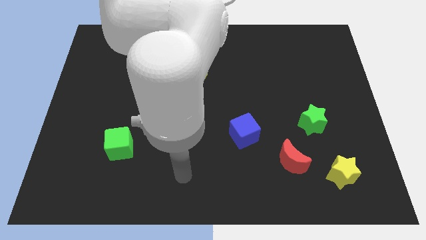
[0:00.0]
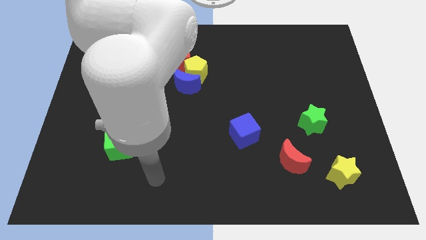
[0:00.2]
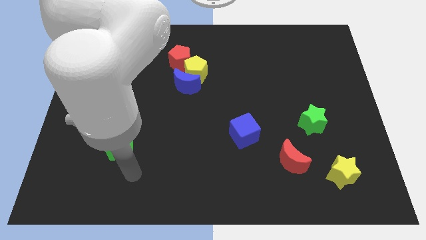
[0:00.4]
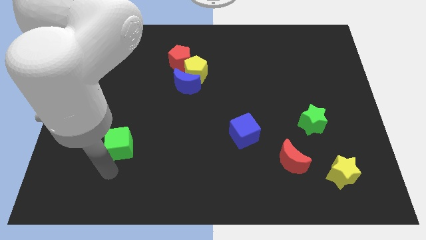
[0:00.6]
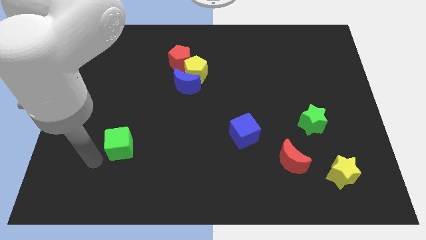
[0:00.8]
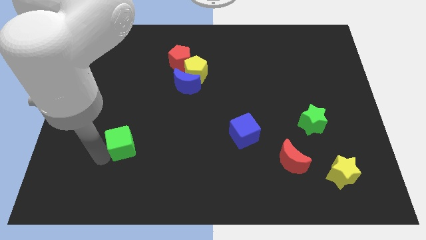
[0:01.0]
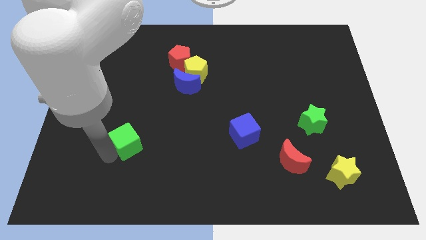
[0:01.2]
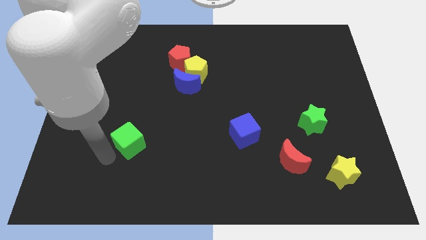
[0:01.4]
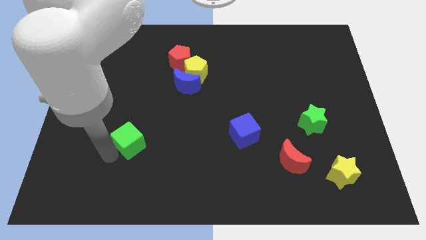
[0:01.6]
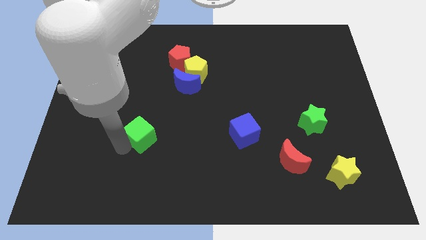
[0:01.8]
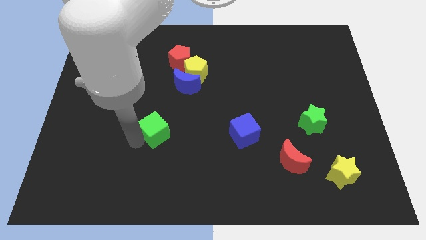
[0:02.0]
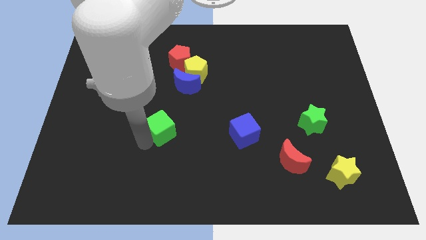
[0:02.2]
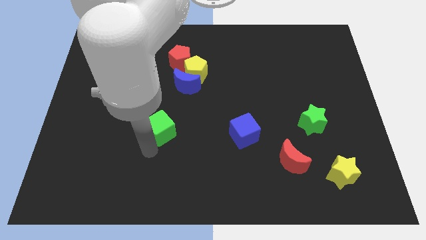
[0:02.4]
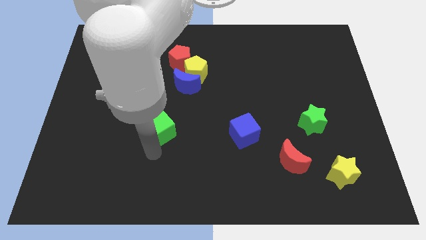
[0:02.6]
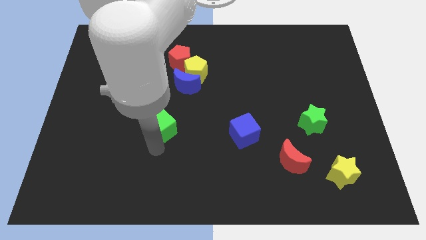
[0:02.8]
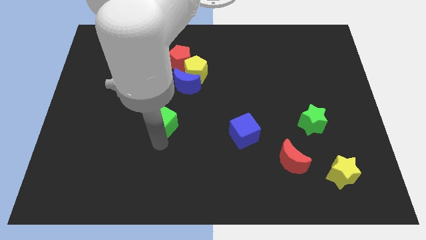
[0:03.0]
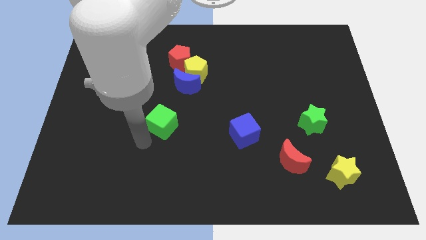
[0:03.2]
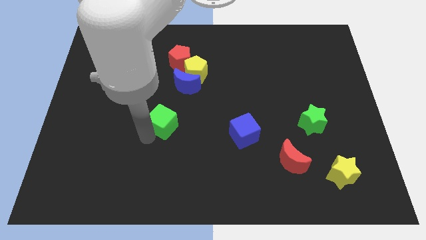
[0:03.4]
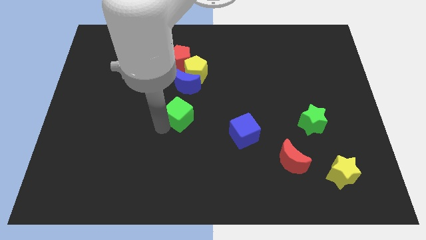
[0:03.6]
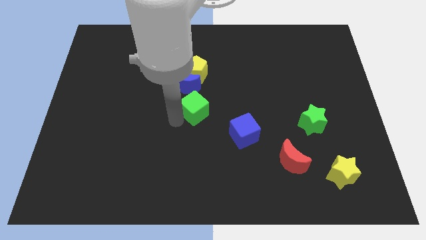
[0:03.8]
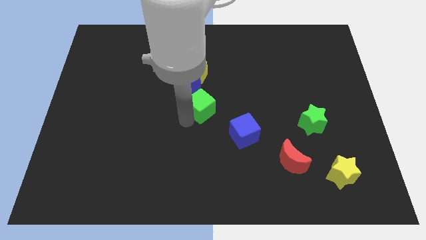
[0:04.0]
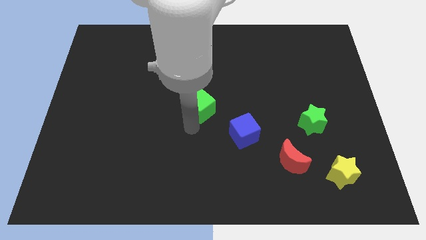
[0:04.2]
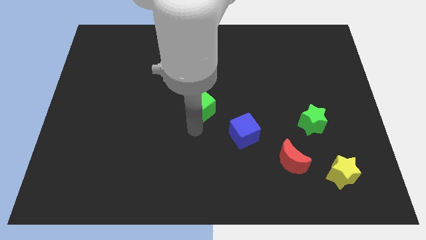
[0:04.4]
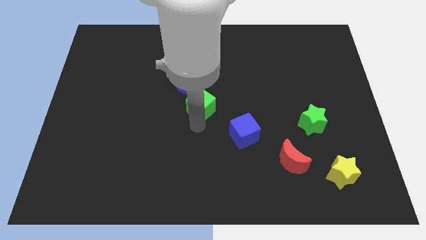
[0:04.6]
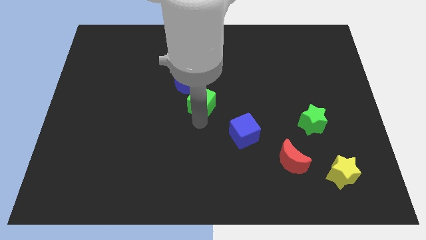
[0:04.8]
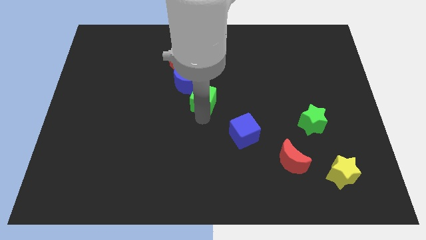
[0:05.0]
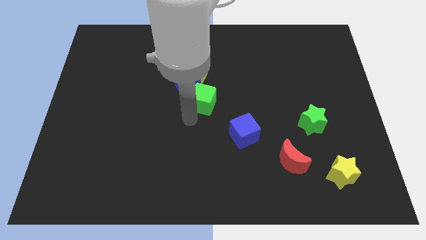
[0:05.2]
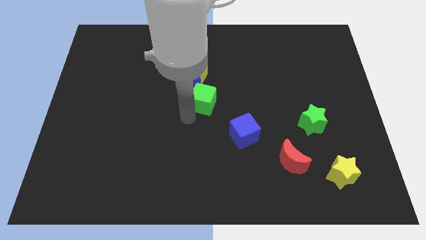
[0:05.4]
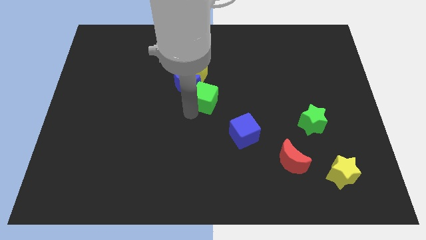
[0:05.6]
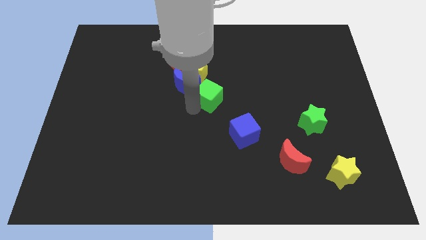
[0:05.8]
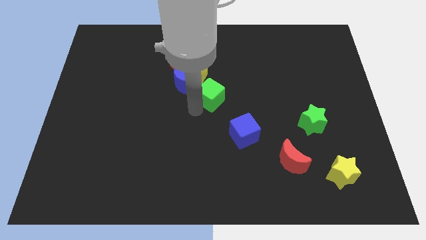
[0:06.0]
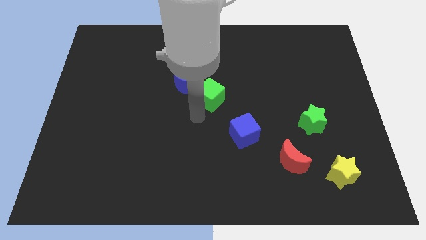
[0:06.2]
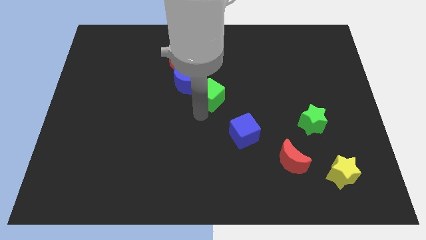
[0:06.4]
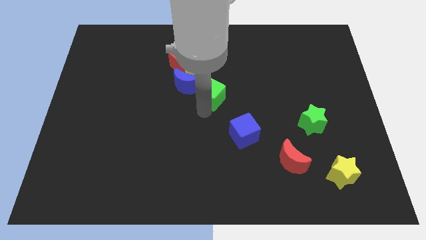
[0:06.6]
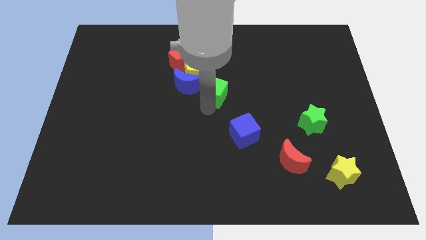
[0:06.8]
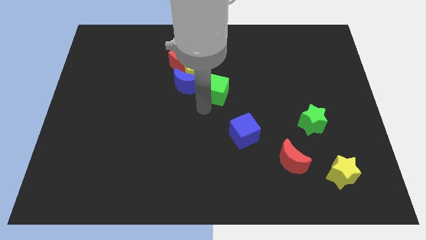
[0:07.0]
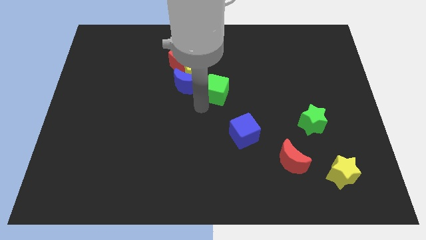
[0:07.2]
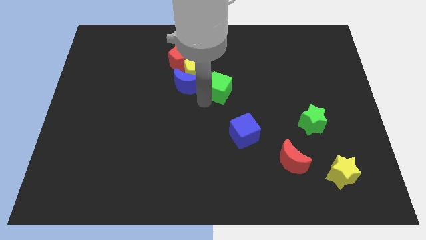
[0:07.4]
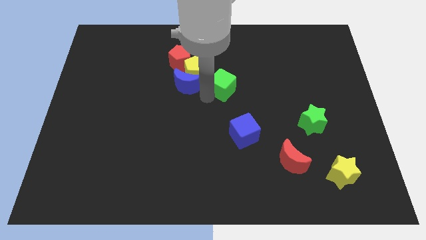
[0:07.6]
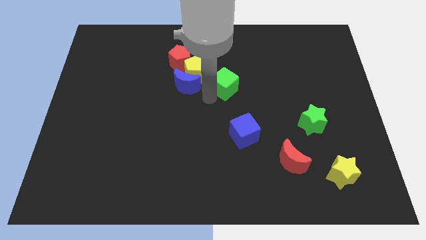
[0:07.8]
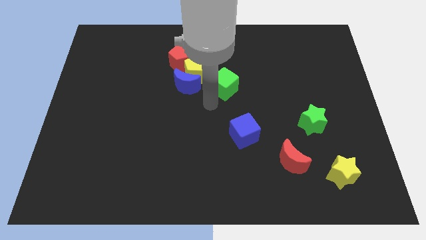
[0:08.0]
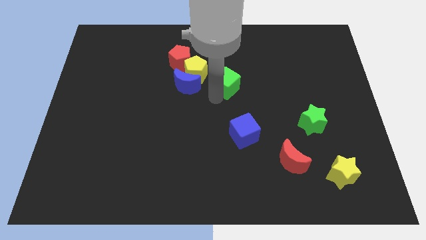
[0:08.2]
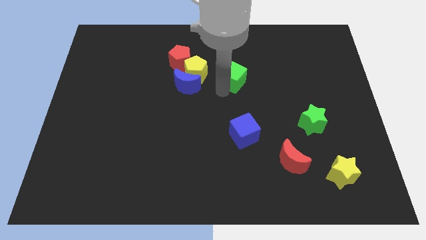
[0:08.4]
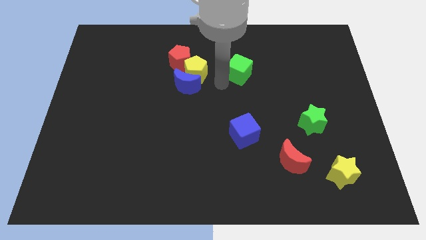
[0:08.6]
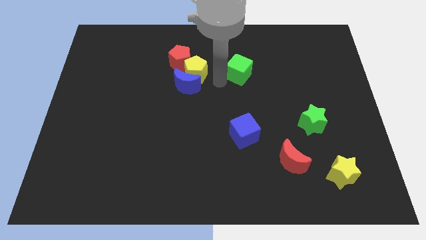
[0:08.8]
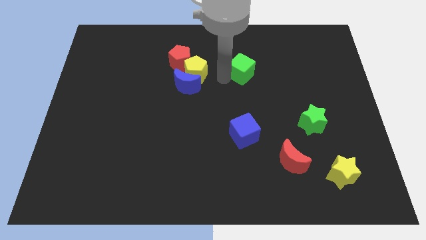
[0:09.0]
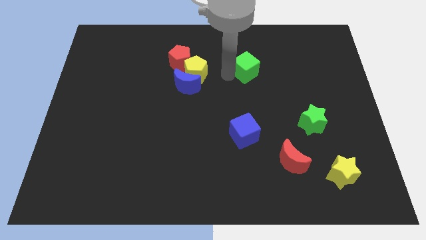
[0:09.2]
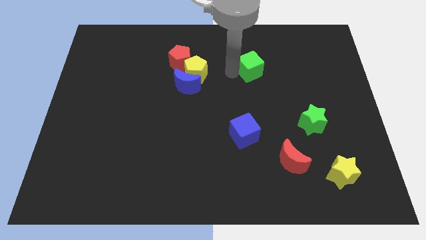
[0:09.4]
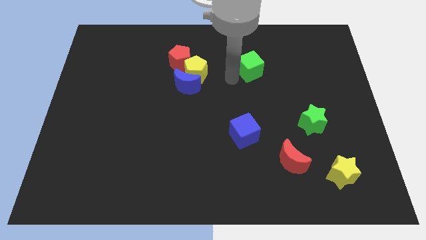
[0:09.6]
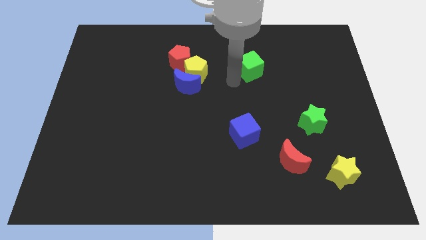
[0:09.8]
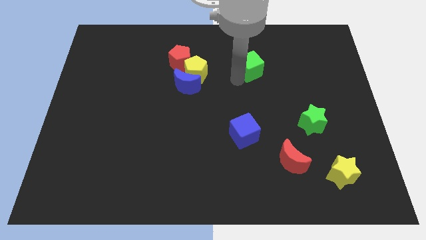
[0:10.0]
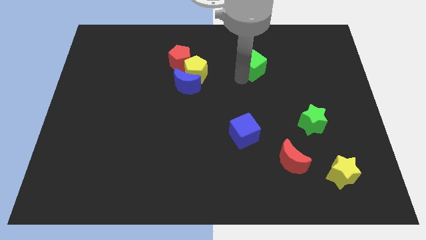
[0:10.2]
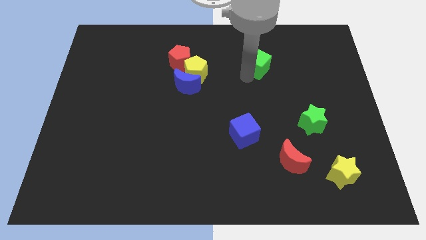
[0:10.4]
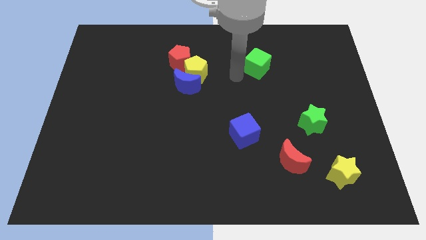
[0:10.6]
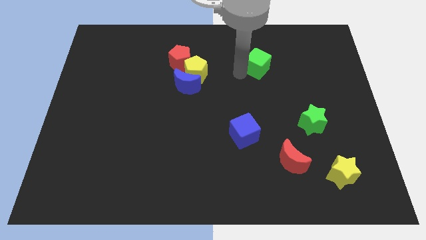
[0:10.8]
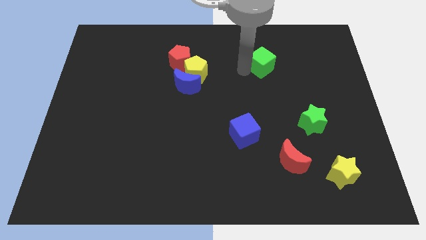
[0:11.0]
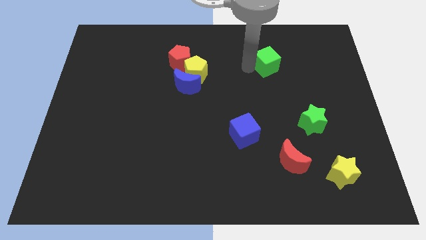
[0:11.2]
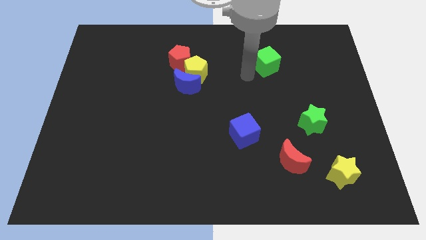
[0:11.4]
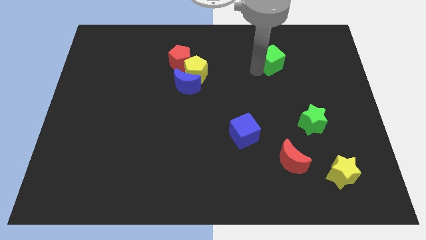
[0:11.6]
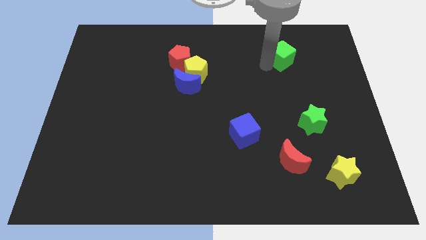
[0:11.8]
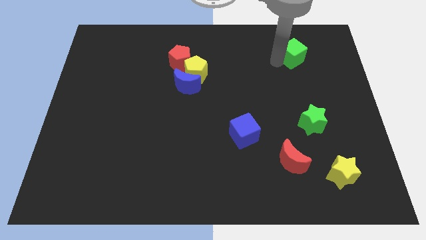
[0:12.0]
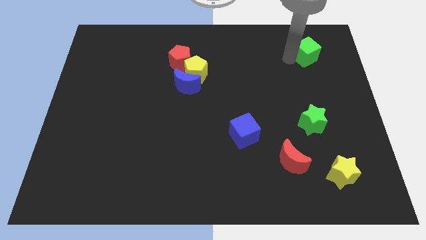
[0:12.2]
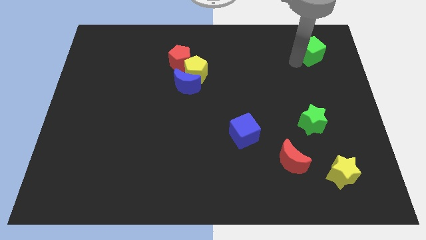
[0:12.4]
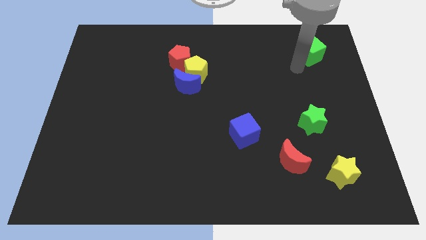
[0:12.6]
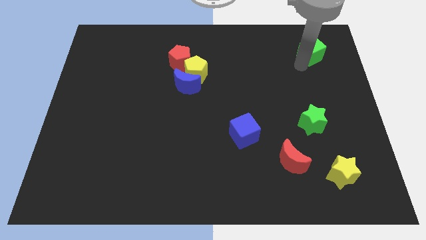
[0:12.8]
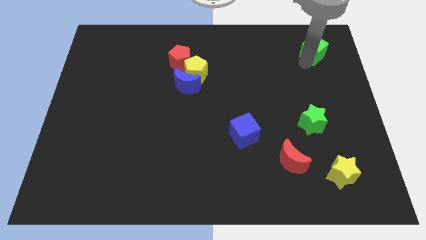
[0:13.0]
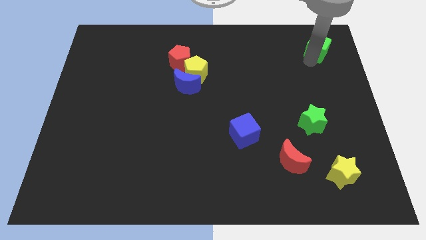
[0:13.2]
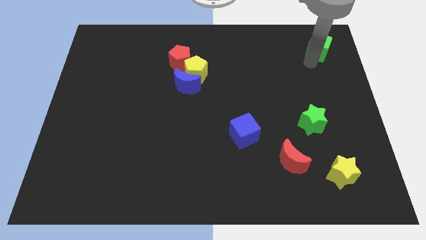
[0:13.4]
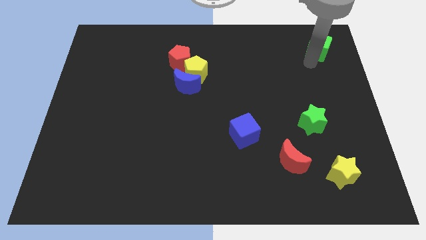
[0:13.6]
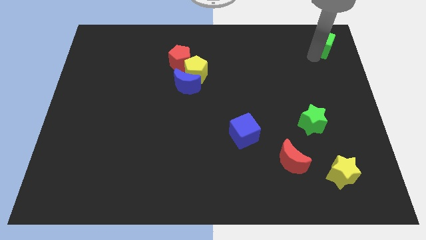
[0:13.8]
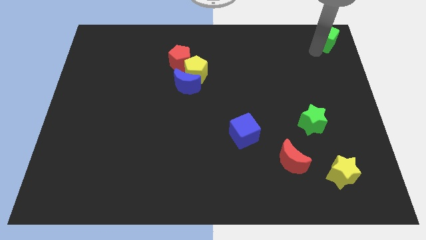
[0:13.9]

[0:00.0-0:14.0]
slide the green cube to the upper right corner
